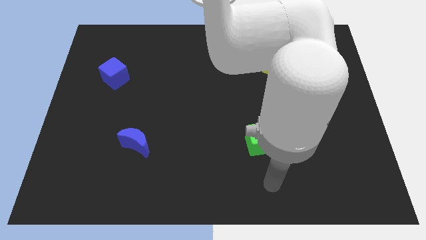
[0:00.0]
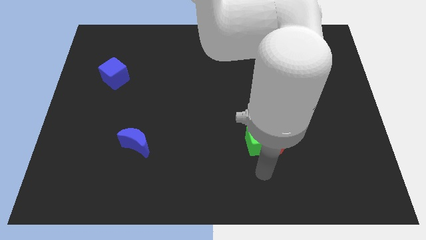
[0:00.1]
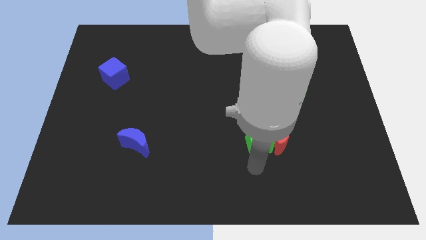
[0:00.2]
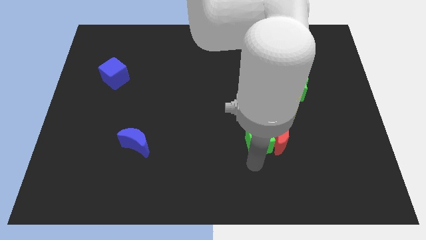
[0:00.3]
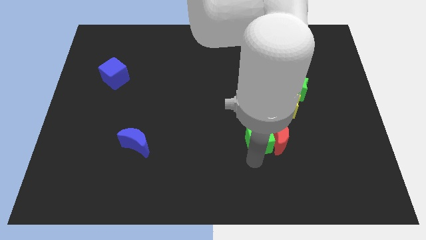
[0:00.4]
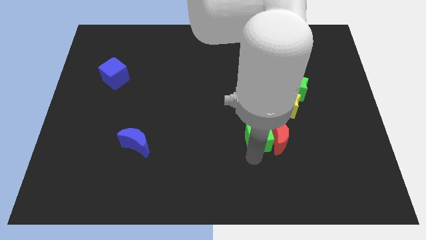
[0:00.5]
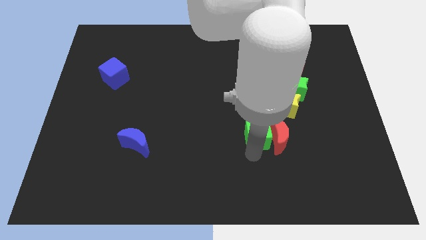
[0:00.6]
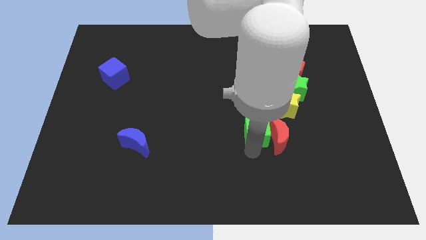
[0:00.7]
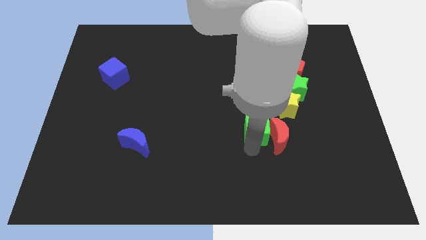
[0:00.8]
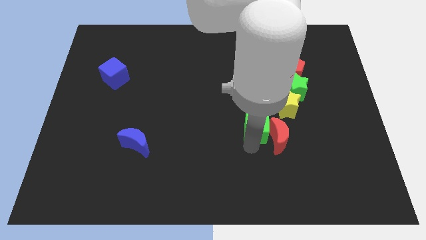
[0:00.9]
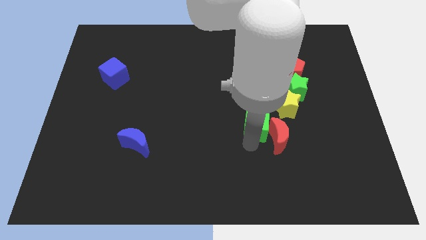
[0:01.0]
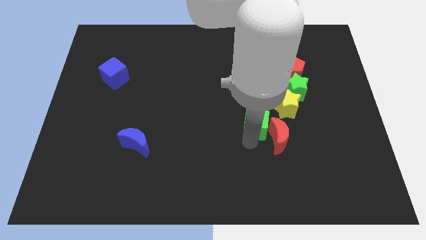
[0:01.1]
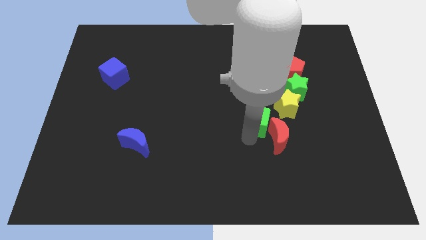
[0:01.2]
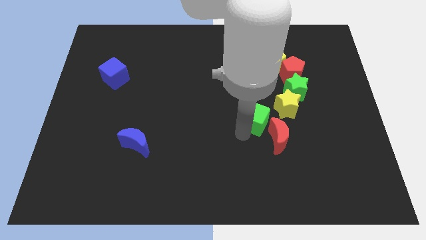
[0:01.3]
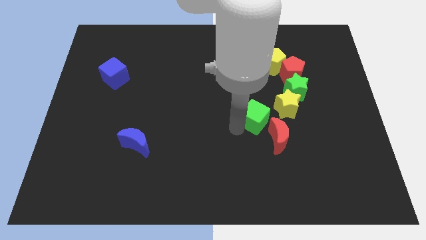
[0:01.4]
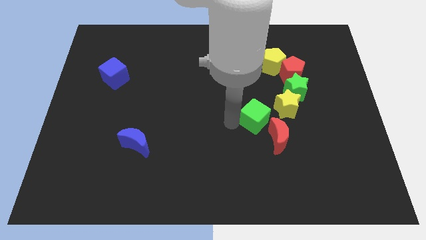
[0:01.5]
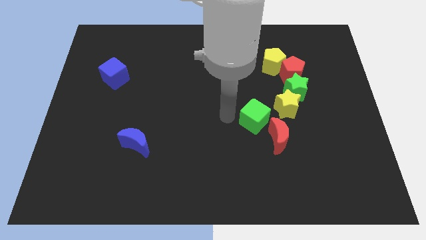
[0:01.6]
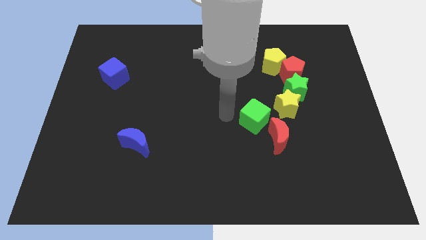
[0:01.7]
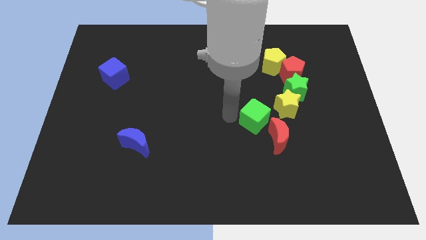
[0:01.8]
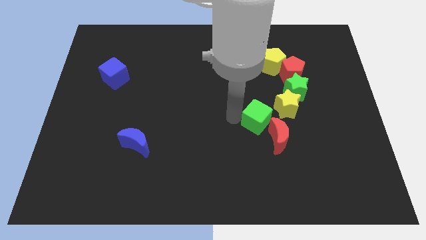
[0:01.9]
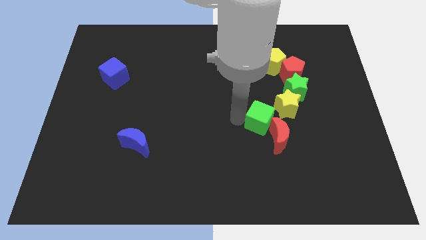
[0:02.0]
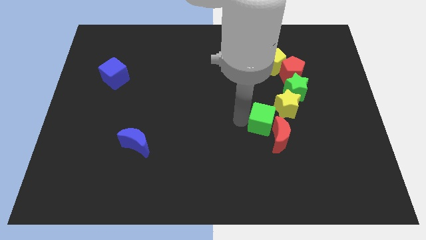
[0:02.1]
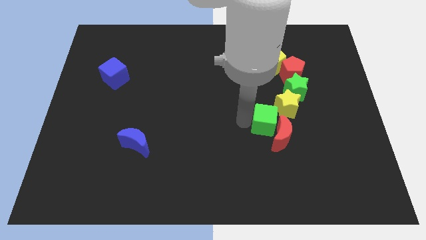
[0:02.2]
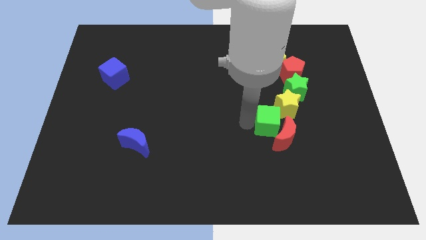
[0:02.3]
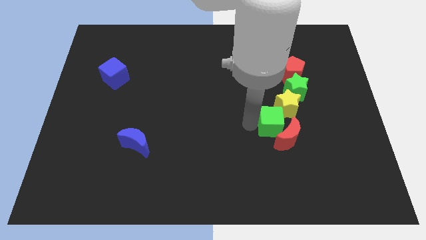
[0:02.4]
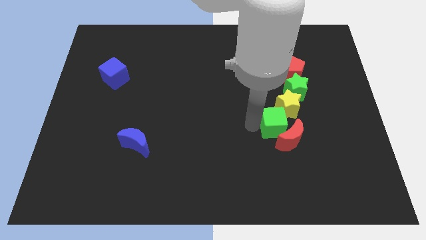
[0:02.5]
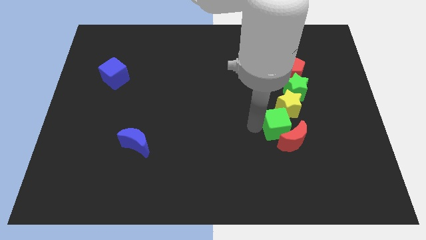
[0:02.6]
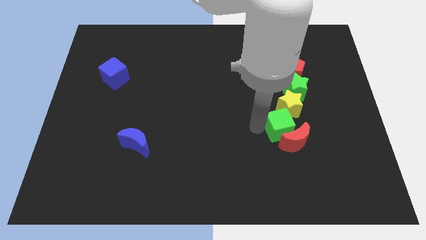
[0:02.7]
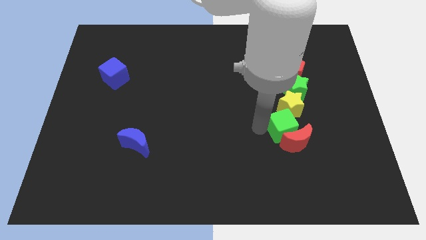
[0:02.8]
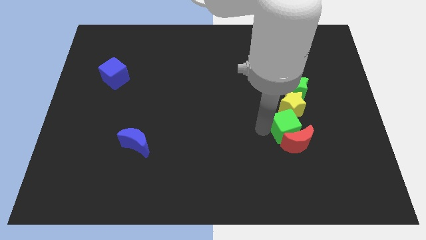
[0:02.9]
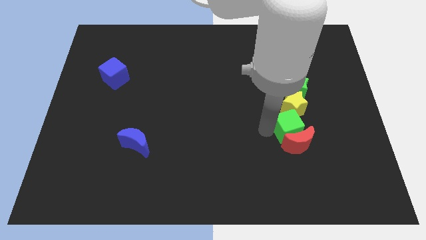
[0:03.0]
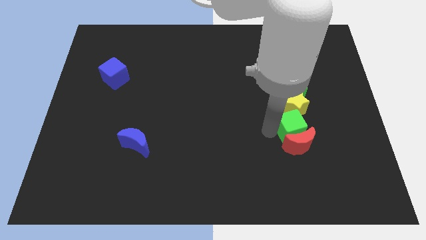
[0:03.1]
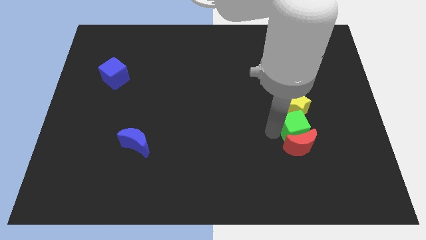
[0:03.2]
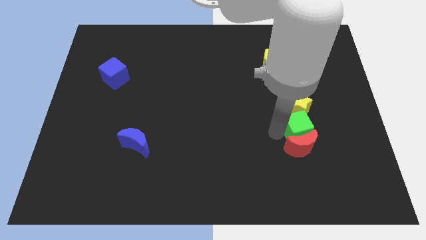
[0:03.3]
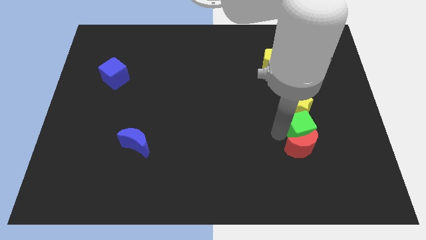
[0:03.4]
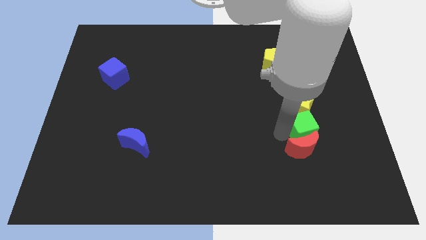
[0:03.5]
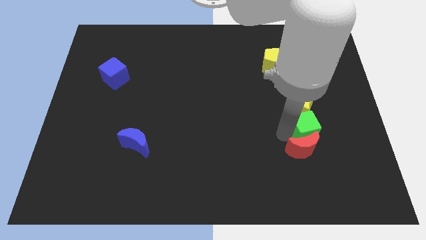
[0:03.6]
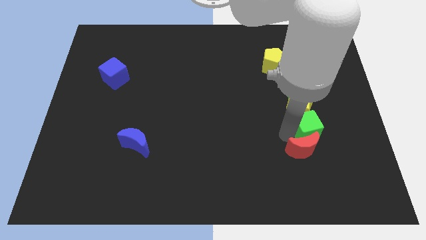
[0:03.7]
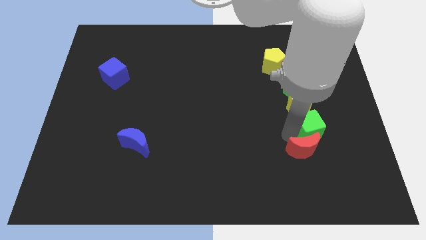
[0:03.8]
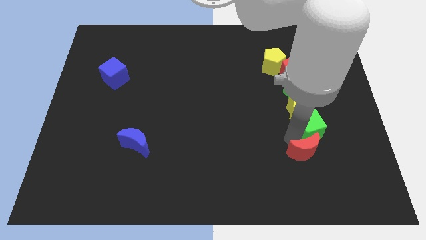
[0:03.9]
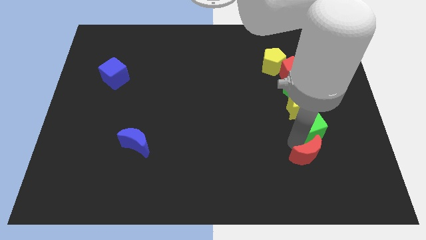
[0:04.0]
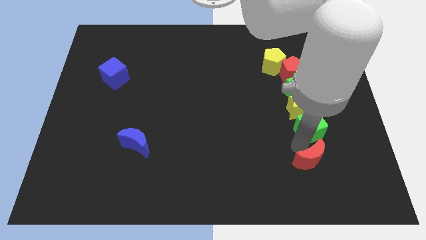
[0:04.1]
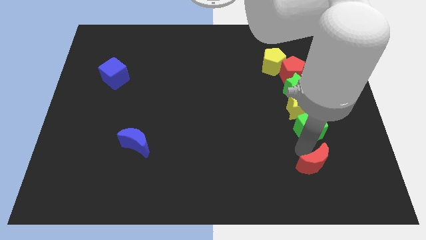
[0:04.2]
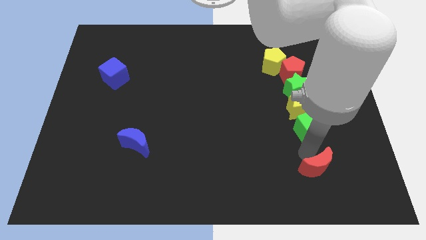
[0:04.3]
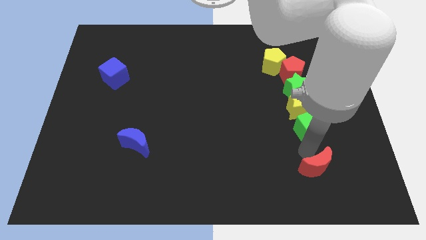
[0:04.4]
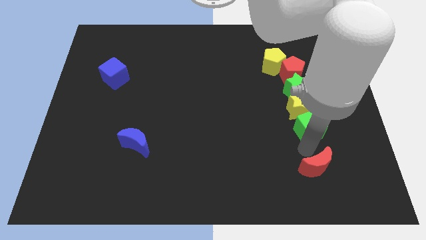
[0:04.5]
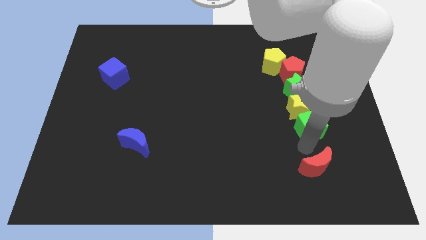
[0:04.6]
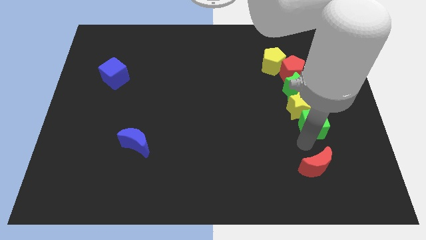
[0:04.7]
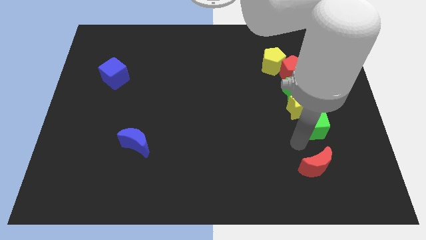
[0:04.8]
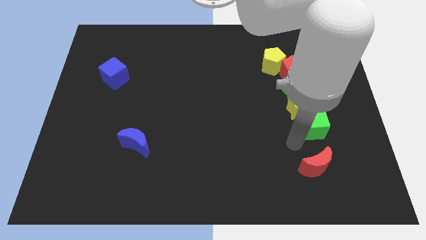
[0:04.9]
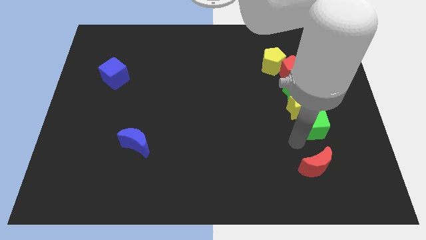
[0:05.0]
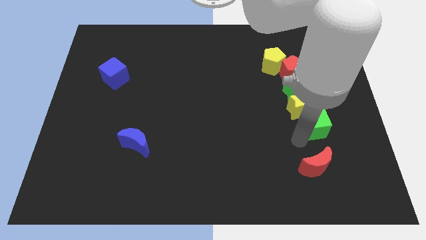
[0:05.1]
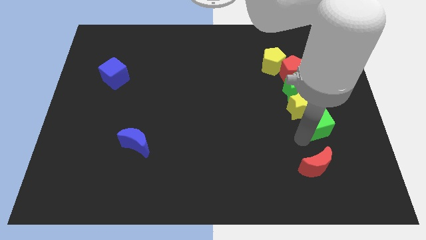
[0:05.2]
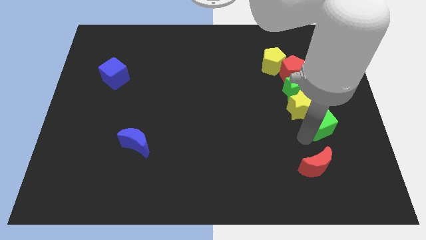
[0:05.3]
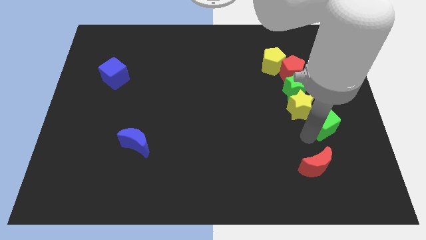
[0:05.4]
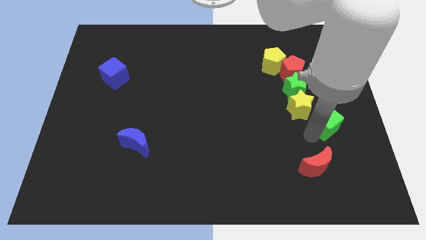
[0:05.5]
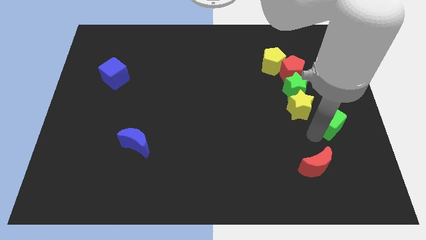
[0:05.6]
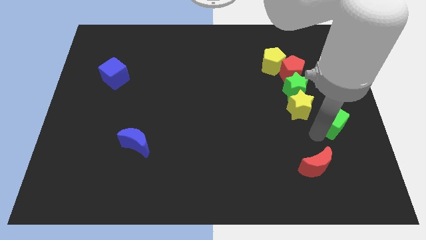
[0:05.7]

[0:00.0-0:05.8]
slide the green cube to the right side of the board
